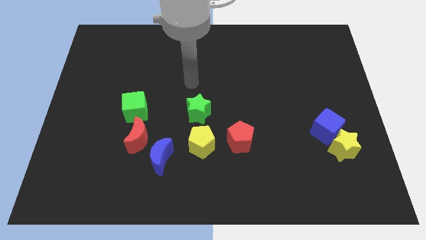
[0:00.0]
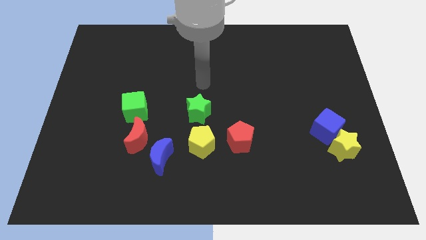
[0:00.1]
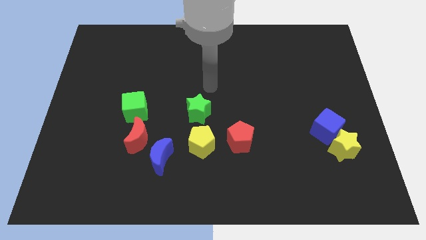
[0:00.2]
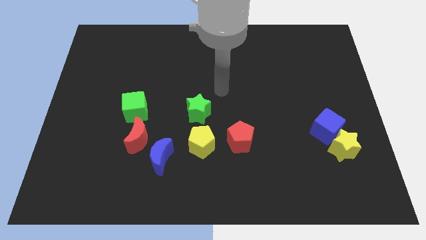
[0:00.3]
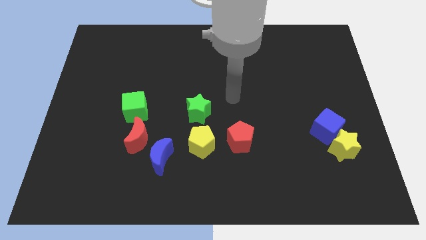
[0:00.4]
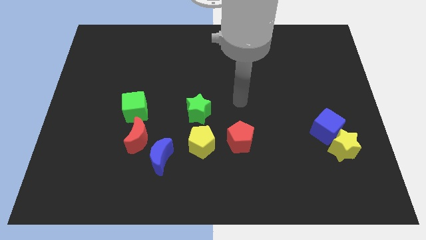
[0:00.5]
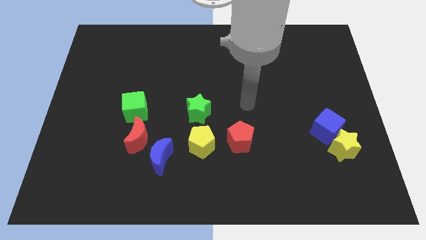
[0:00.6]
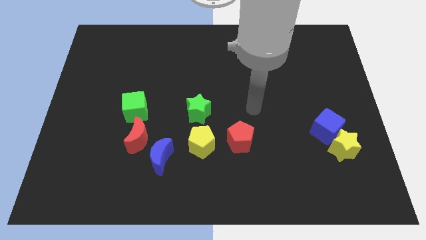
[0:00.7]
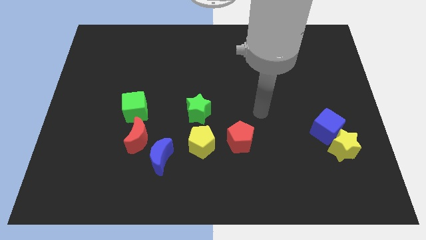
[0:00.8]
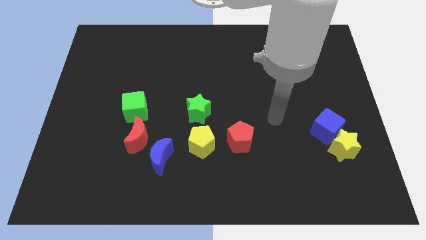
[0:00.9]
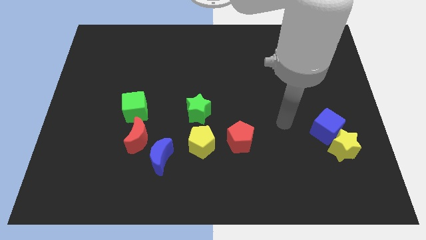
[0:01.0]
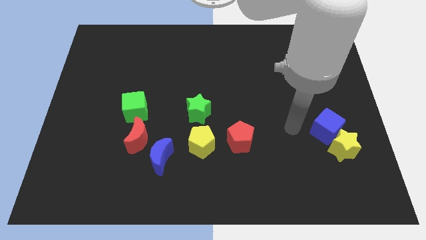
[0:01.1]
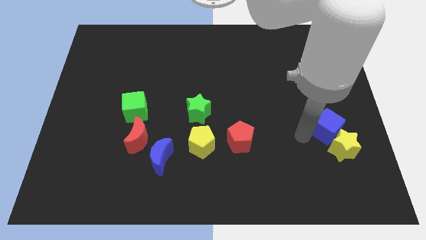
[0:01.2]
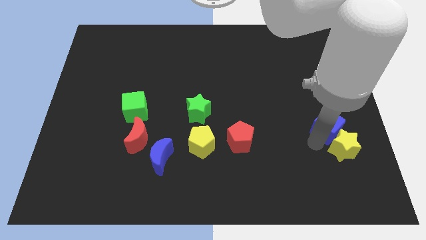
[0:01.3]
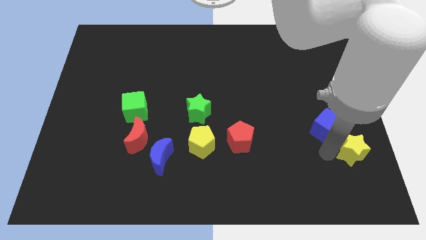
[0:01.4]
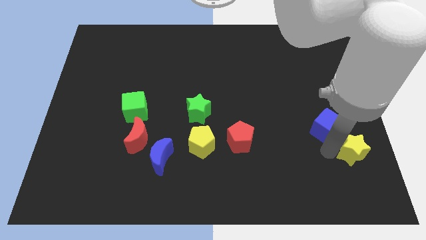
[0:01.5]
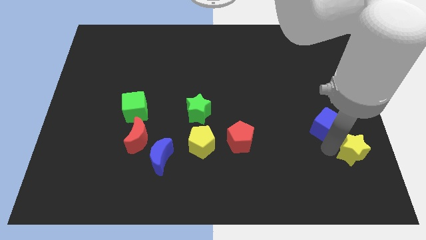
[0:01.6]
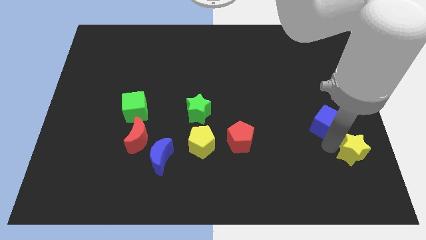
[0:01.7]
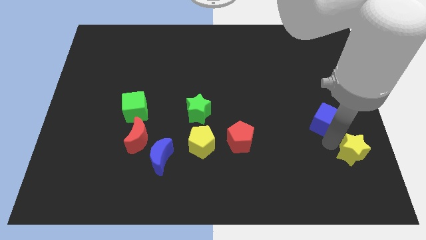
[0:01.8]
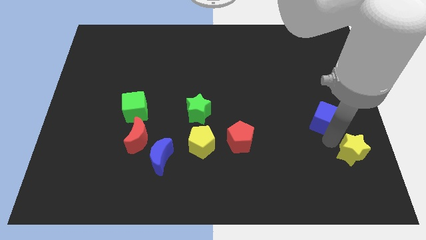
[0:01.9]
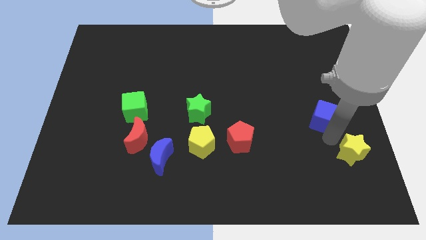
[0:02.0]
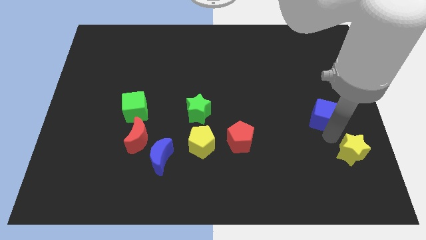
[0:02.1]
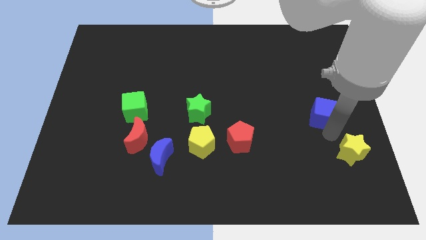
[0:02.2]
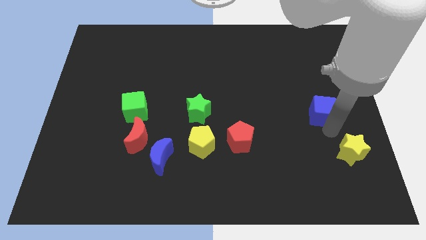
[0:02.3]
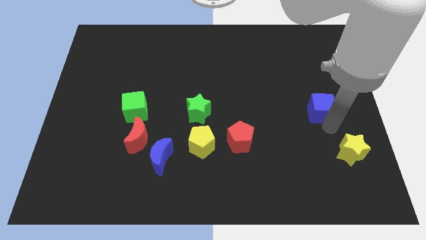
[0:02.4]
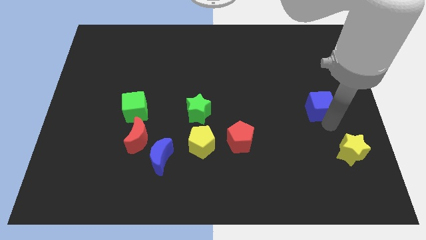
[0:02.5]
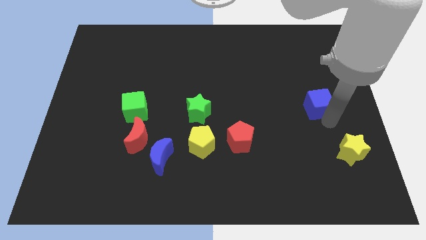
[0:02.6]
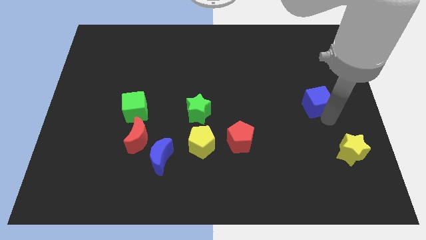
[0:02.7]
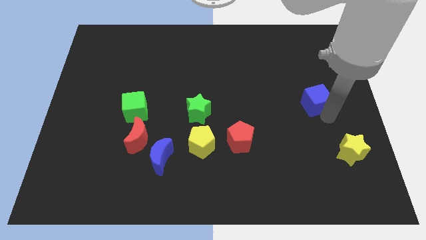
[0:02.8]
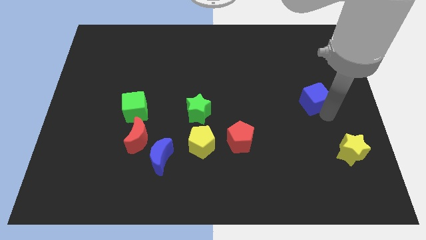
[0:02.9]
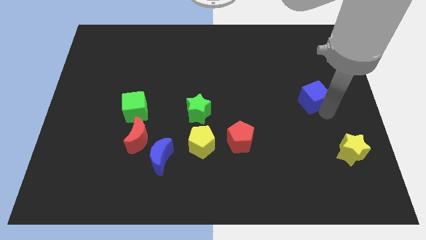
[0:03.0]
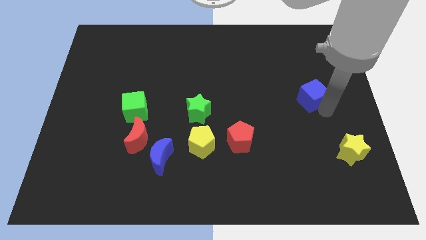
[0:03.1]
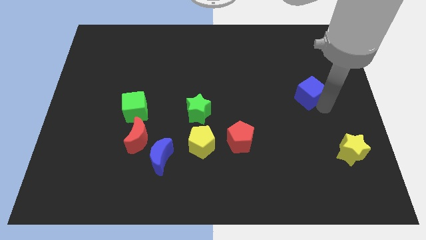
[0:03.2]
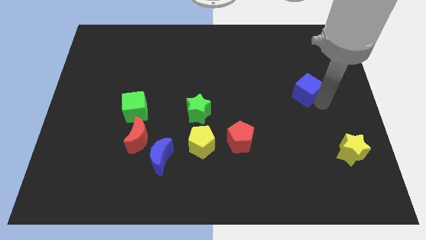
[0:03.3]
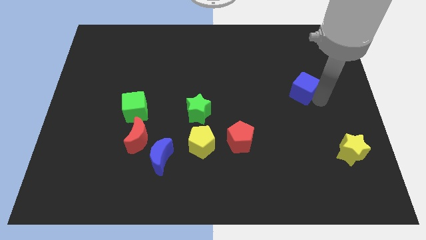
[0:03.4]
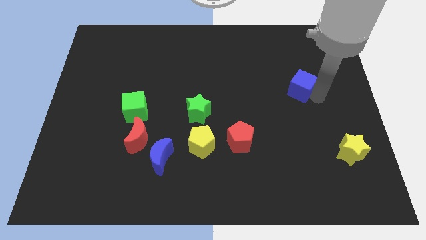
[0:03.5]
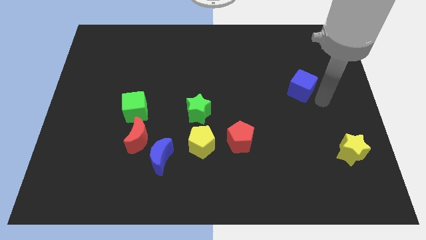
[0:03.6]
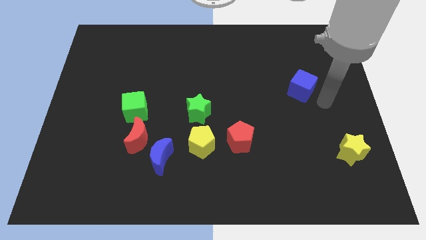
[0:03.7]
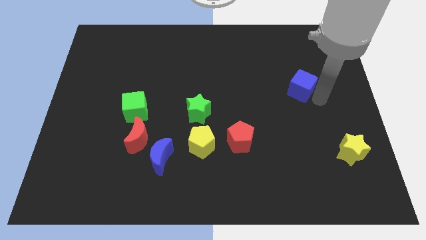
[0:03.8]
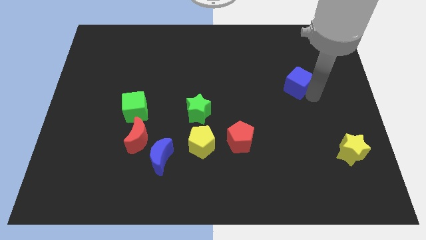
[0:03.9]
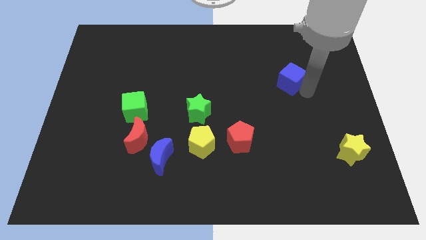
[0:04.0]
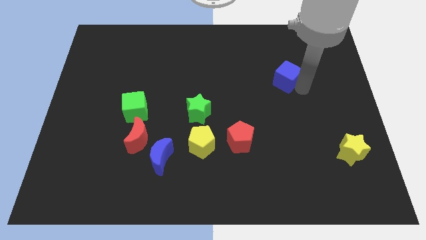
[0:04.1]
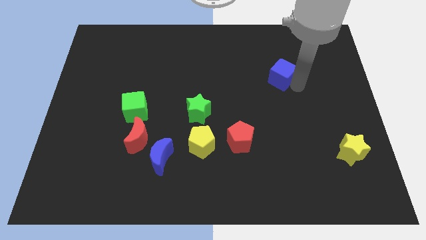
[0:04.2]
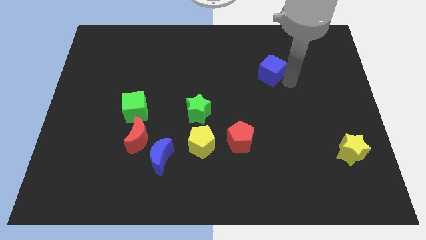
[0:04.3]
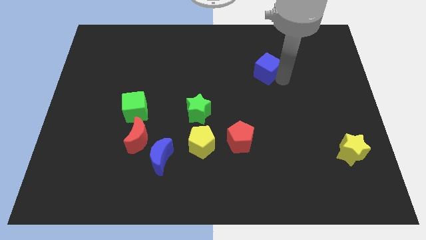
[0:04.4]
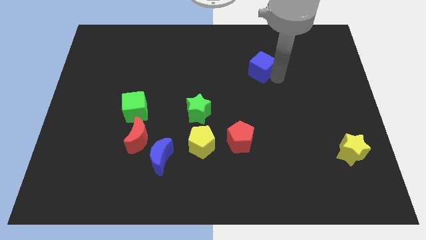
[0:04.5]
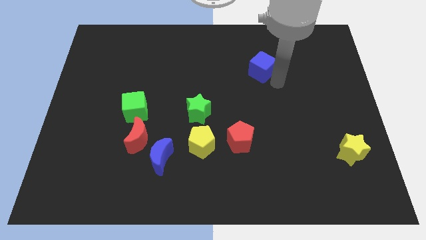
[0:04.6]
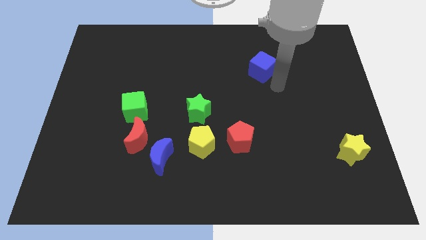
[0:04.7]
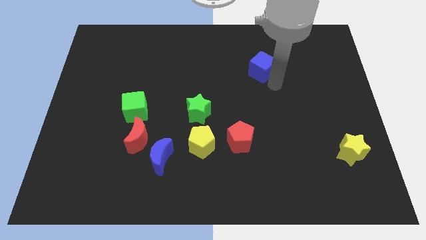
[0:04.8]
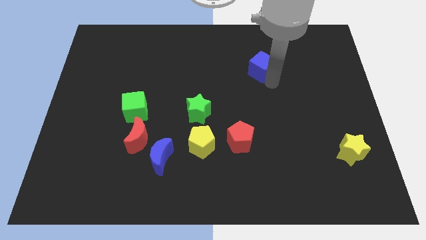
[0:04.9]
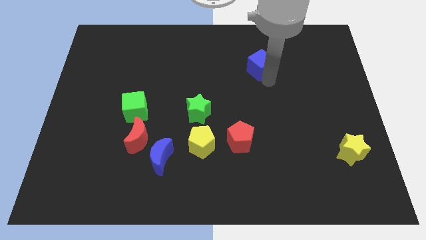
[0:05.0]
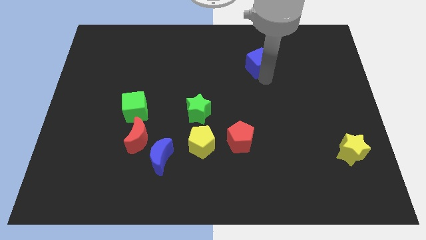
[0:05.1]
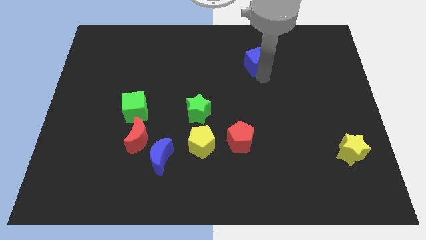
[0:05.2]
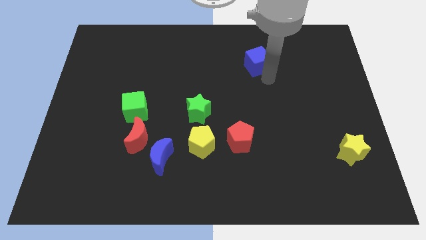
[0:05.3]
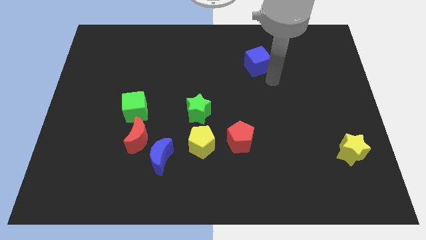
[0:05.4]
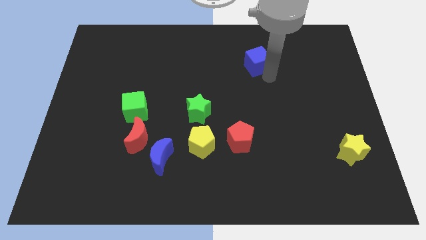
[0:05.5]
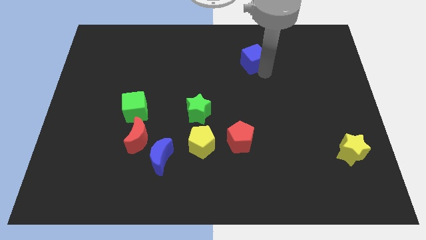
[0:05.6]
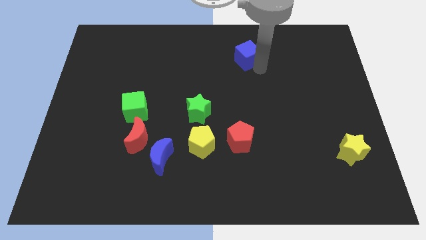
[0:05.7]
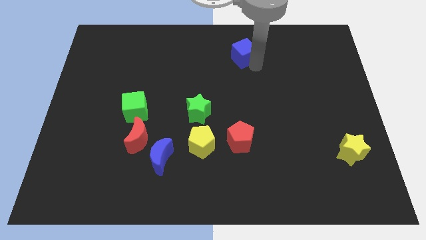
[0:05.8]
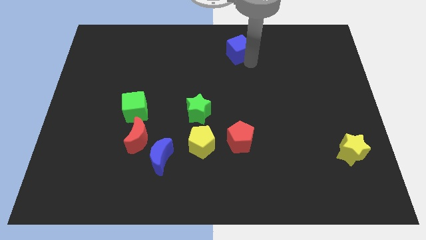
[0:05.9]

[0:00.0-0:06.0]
slide the blue cube to the towards your base

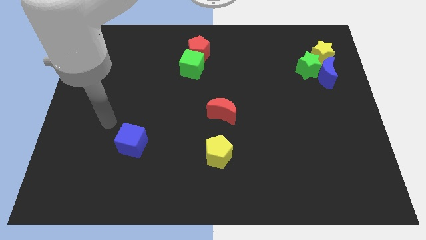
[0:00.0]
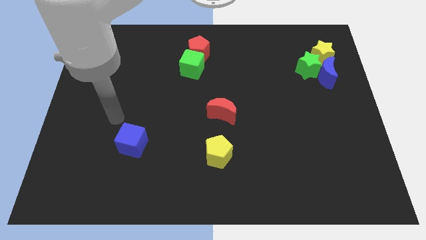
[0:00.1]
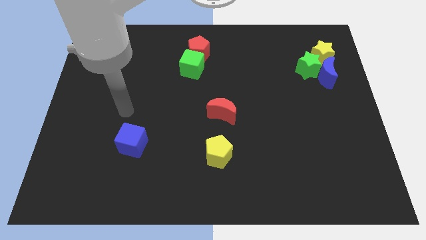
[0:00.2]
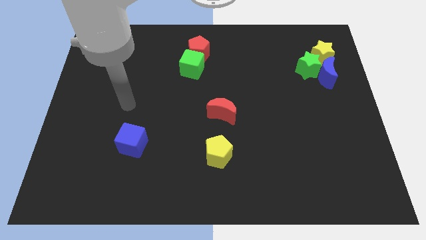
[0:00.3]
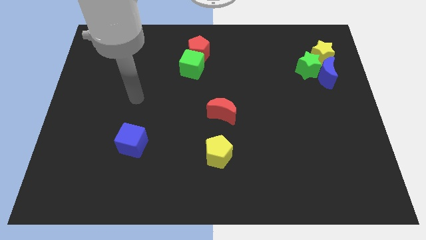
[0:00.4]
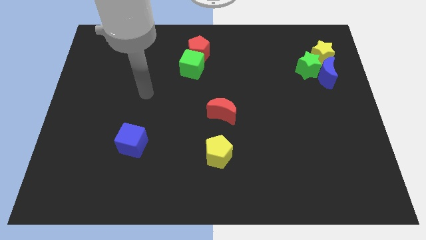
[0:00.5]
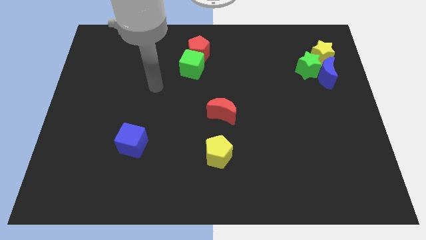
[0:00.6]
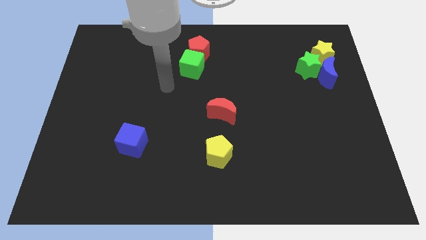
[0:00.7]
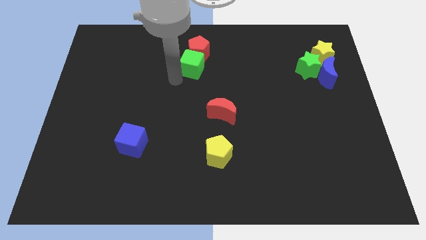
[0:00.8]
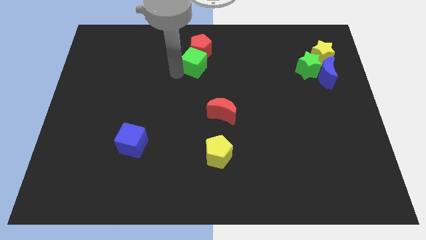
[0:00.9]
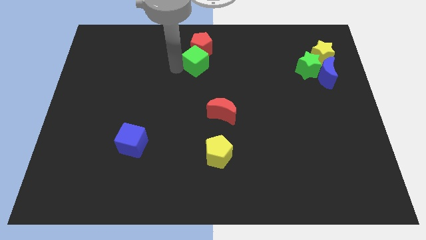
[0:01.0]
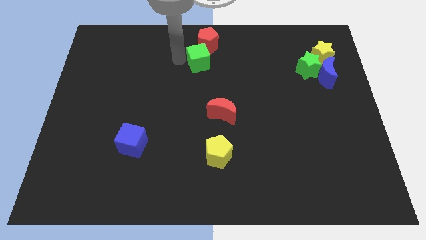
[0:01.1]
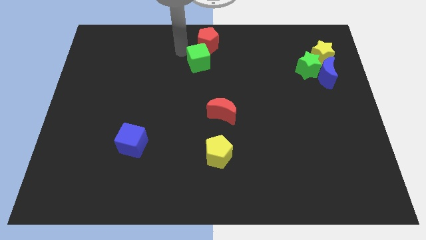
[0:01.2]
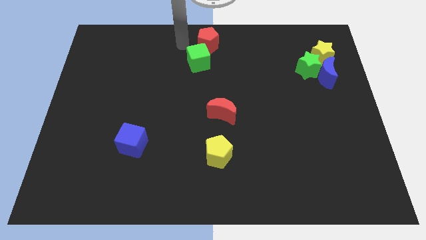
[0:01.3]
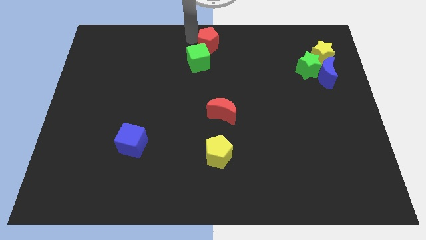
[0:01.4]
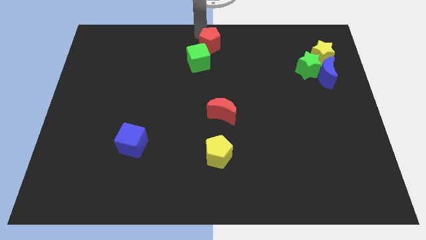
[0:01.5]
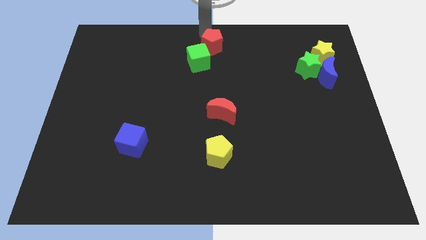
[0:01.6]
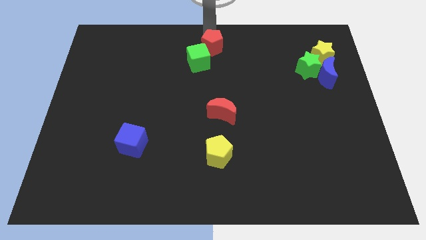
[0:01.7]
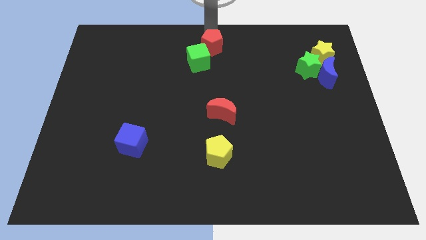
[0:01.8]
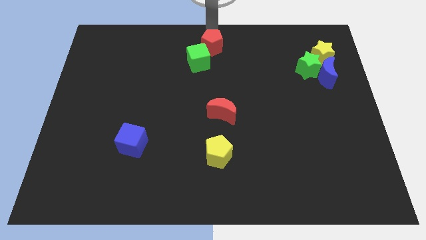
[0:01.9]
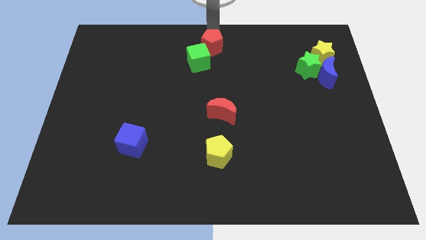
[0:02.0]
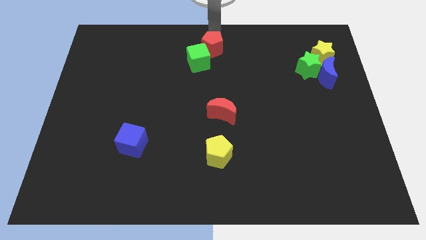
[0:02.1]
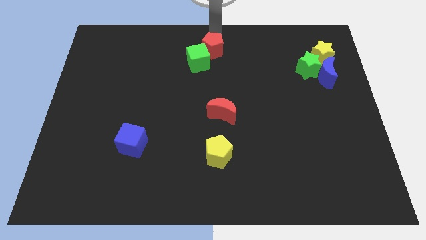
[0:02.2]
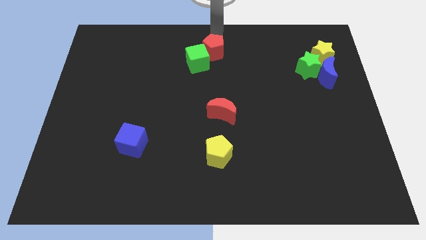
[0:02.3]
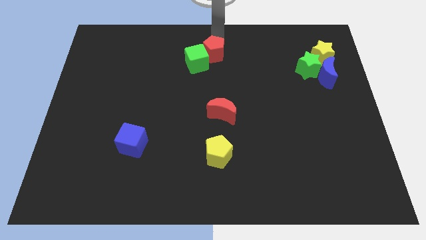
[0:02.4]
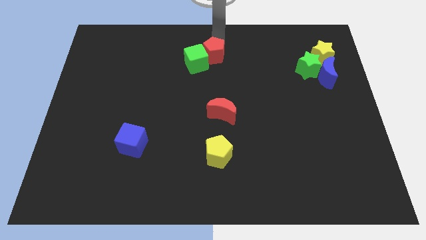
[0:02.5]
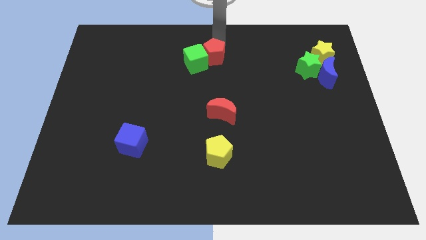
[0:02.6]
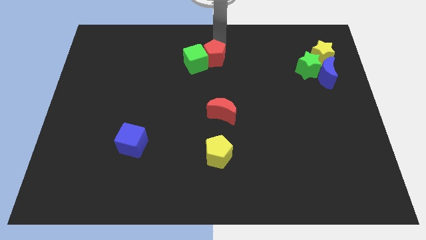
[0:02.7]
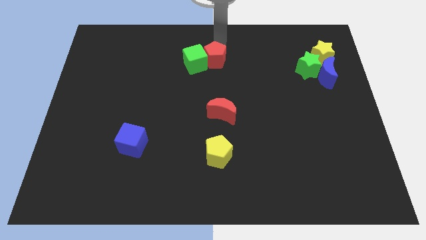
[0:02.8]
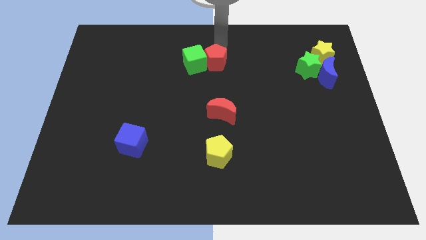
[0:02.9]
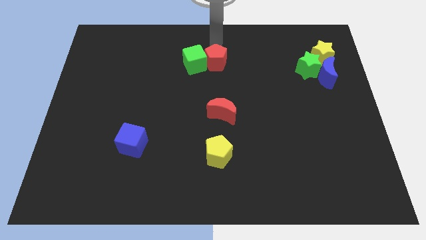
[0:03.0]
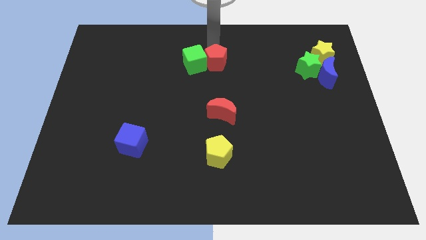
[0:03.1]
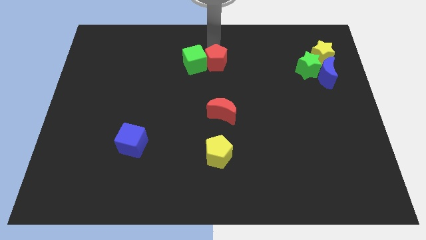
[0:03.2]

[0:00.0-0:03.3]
slide the red pentagon to the middle
